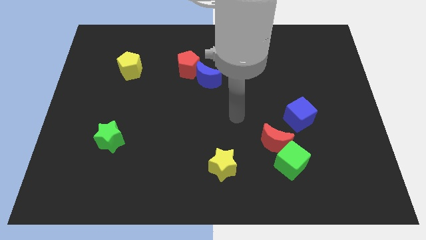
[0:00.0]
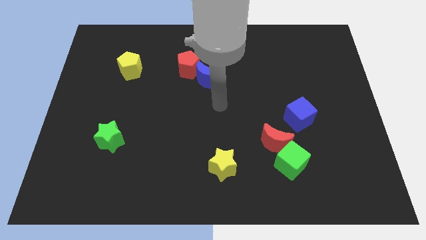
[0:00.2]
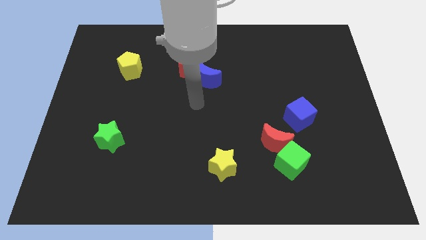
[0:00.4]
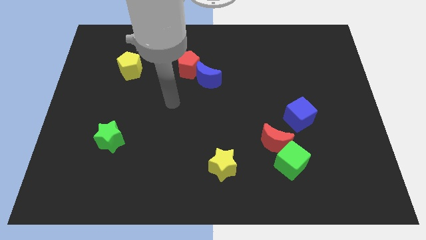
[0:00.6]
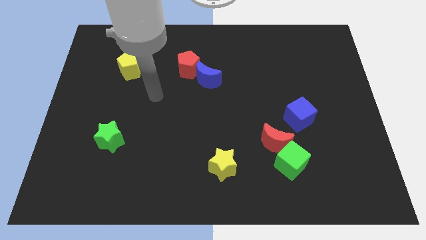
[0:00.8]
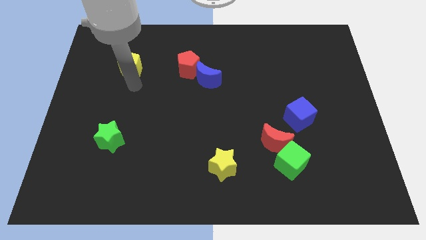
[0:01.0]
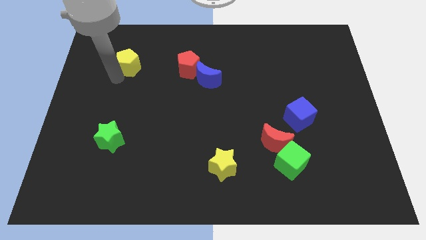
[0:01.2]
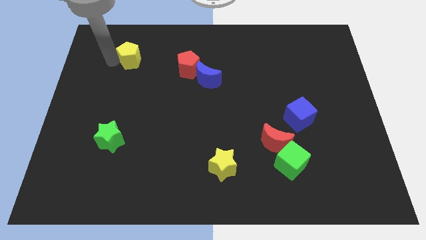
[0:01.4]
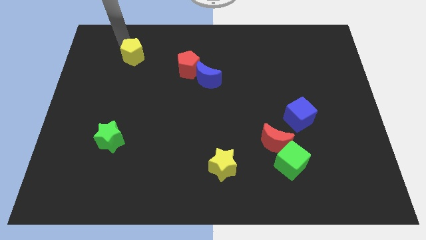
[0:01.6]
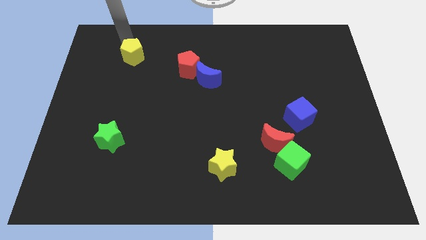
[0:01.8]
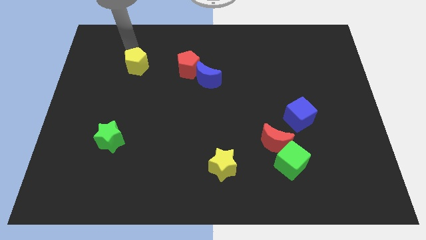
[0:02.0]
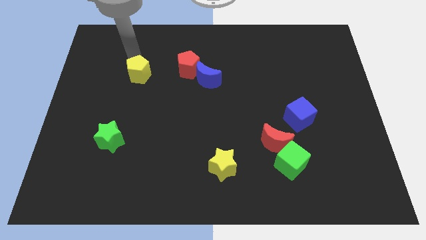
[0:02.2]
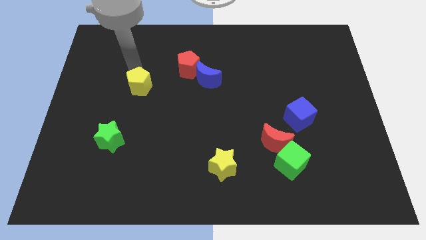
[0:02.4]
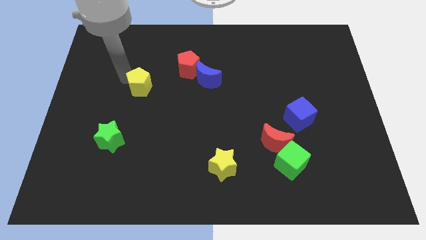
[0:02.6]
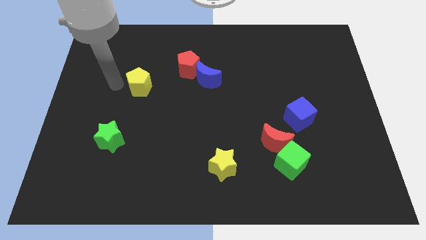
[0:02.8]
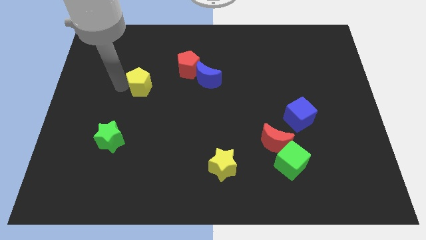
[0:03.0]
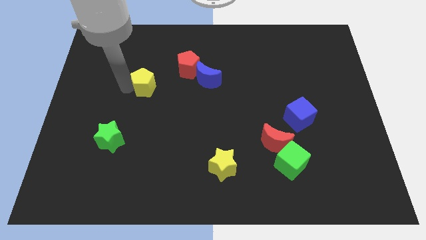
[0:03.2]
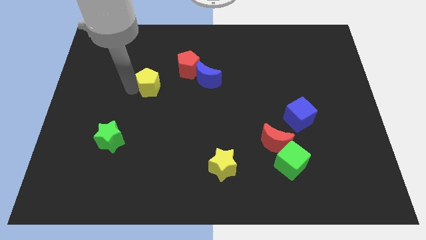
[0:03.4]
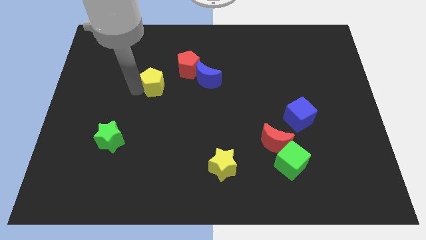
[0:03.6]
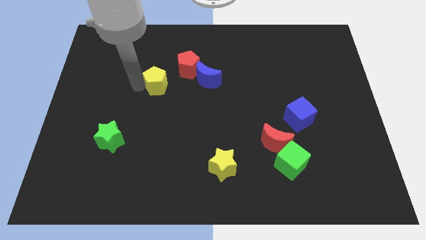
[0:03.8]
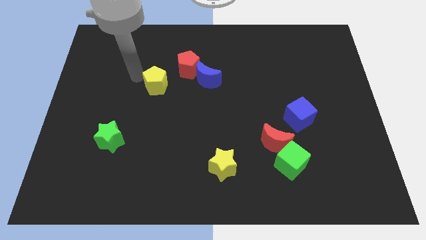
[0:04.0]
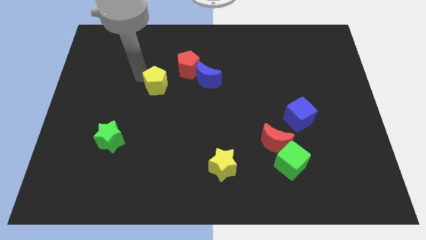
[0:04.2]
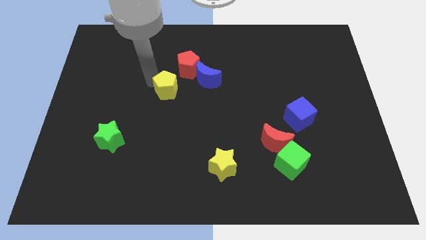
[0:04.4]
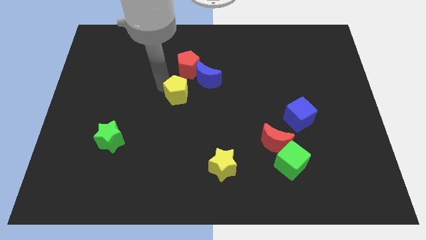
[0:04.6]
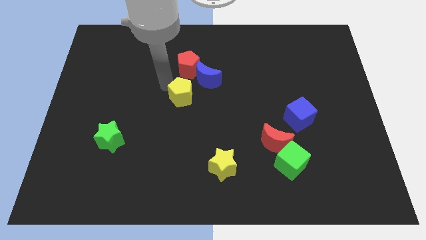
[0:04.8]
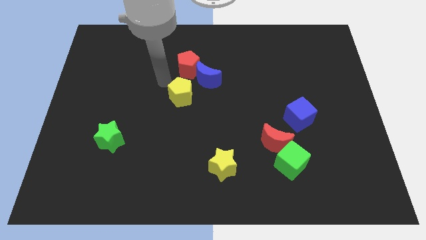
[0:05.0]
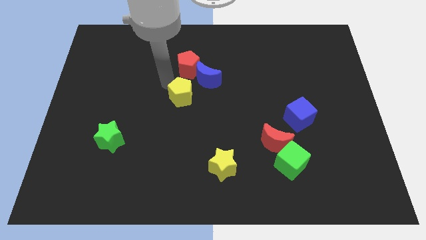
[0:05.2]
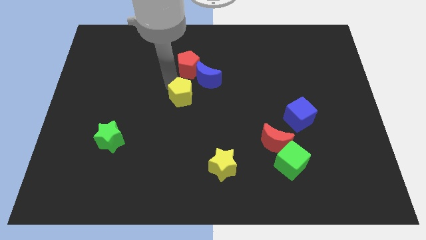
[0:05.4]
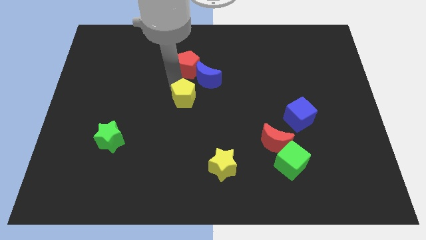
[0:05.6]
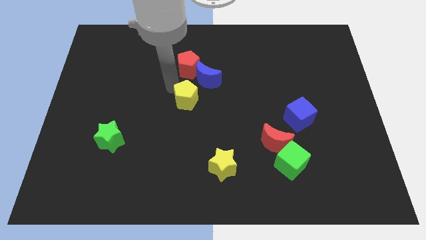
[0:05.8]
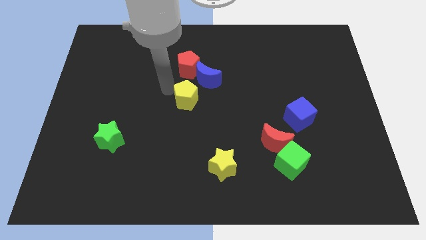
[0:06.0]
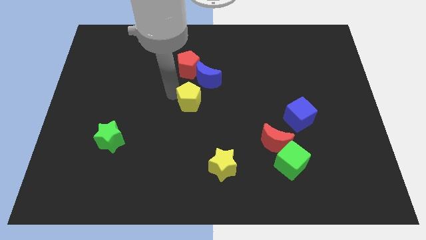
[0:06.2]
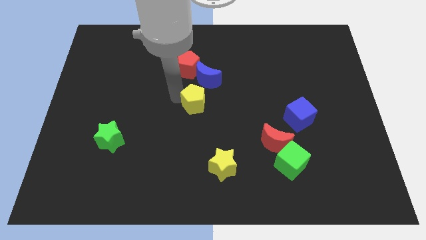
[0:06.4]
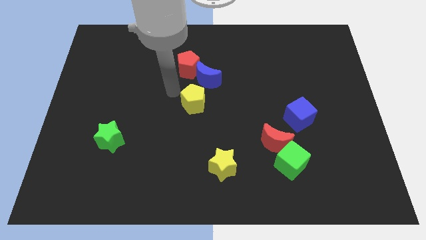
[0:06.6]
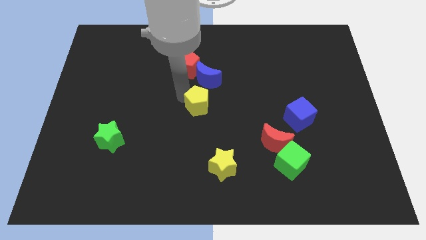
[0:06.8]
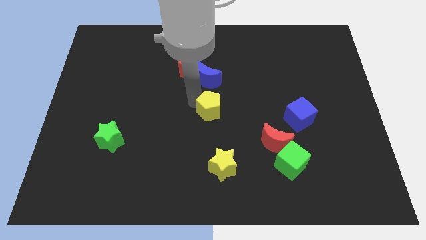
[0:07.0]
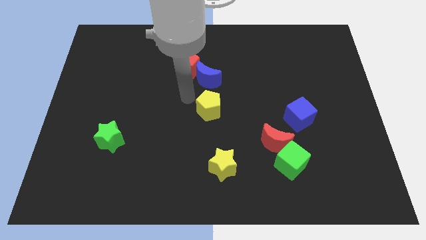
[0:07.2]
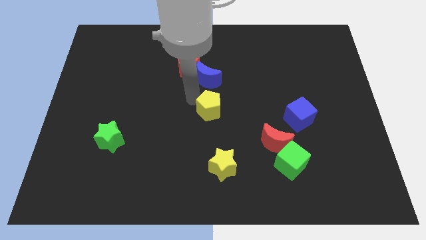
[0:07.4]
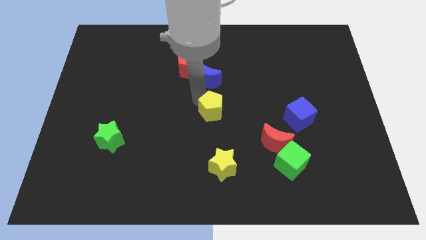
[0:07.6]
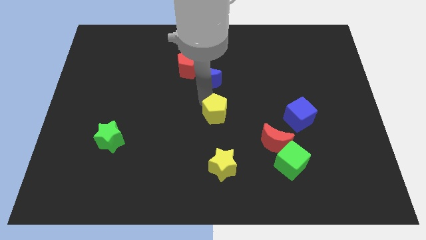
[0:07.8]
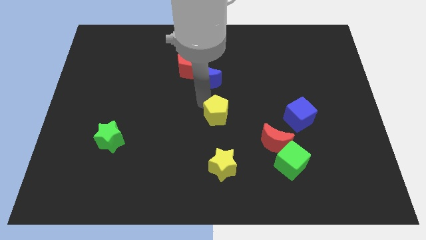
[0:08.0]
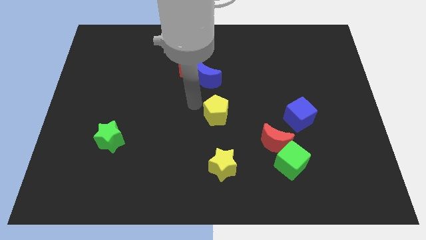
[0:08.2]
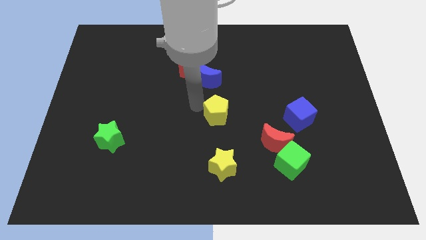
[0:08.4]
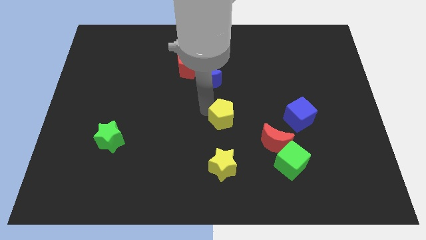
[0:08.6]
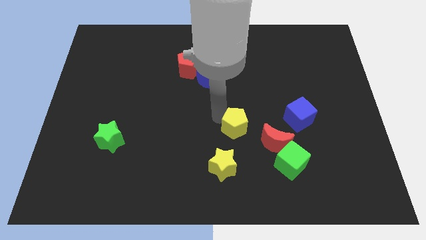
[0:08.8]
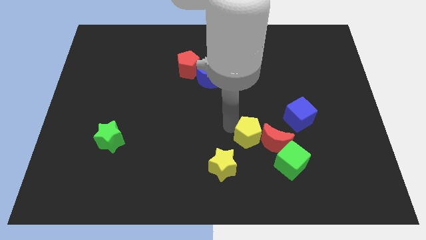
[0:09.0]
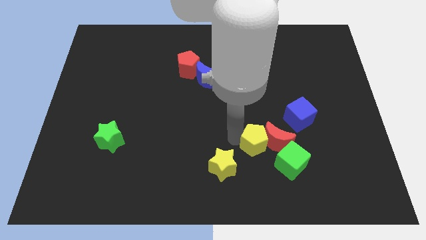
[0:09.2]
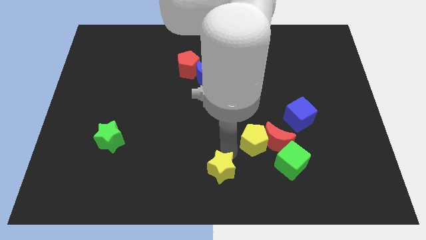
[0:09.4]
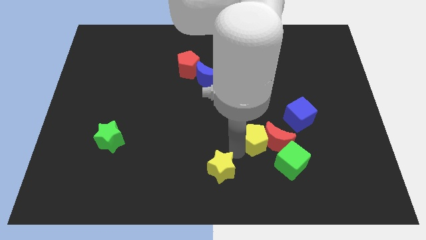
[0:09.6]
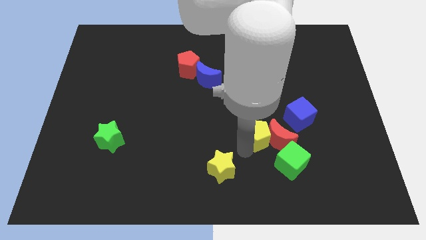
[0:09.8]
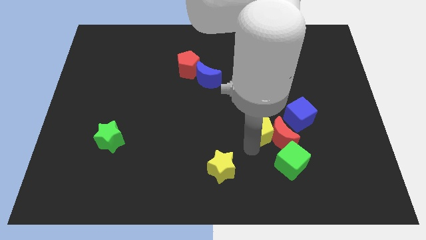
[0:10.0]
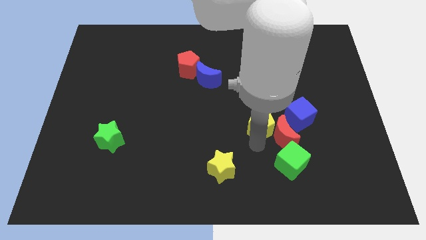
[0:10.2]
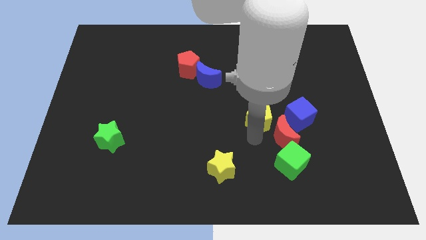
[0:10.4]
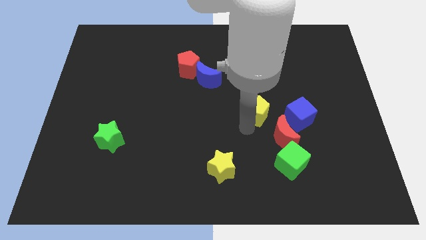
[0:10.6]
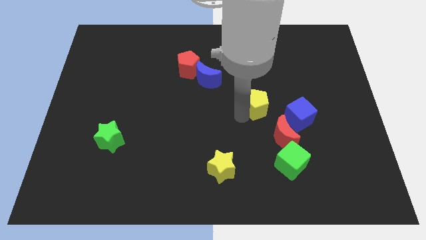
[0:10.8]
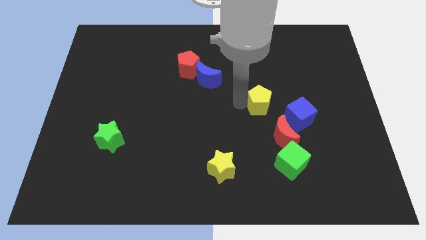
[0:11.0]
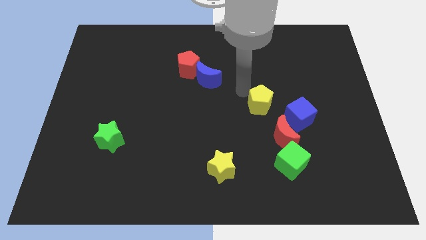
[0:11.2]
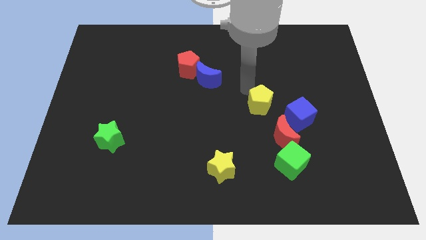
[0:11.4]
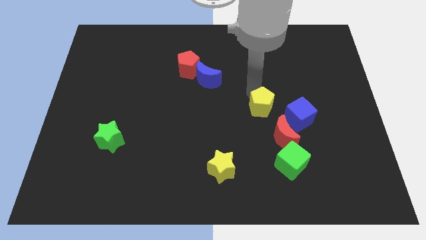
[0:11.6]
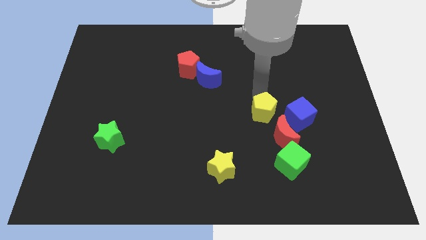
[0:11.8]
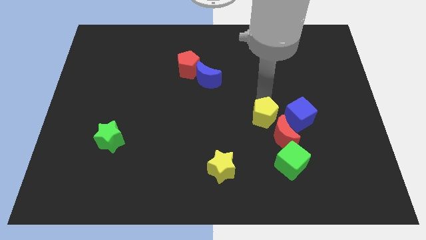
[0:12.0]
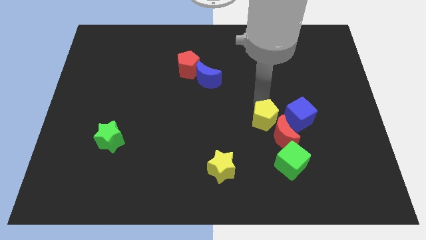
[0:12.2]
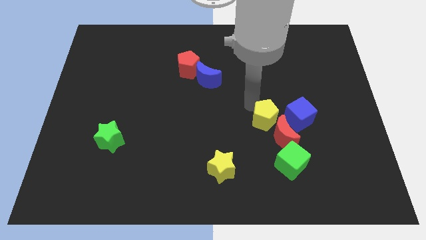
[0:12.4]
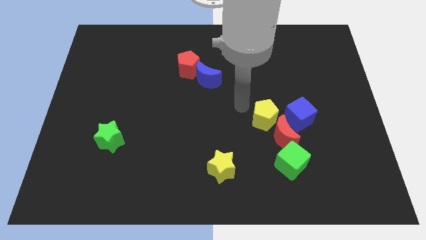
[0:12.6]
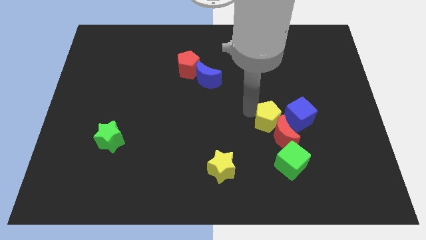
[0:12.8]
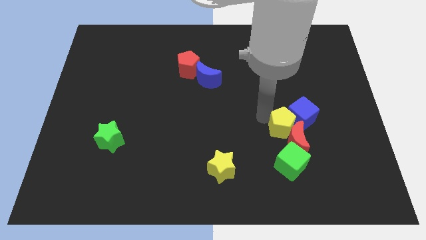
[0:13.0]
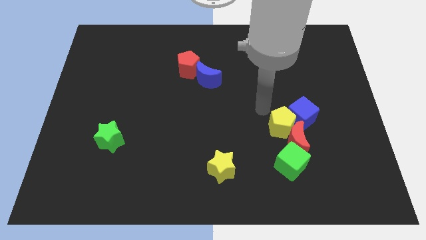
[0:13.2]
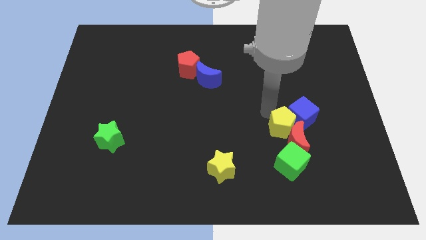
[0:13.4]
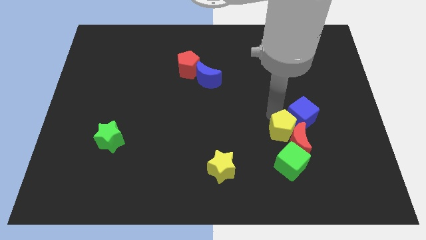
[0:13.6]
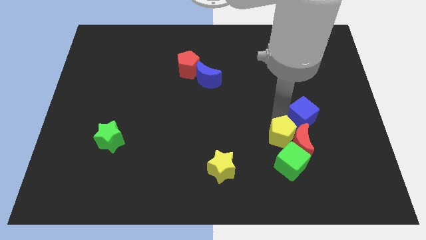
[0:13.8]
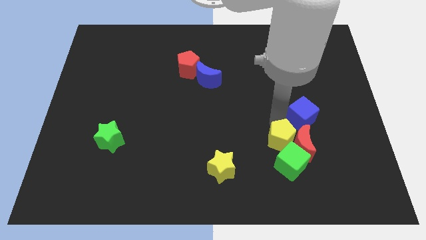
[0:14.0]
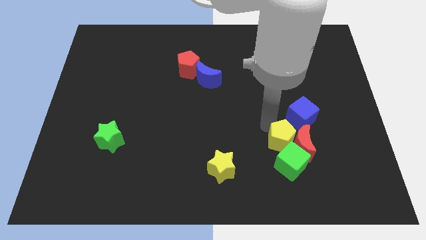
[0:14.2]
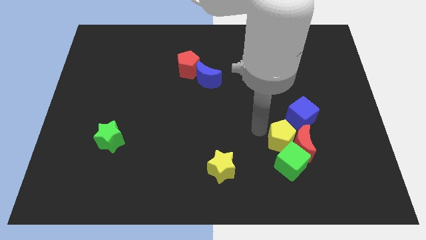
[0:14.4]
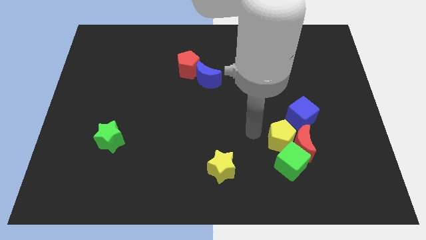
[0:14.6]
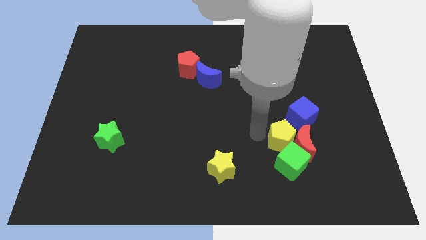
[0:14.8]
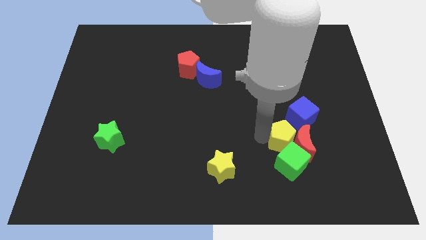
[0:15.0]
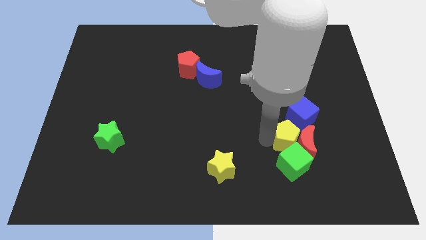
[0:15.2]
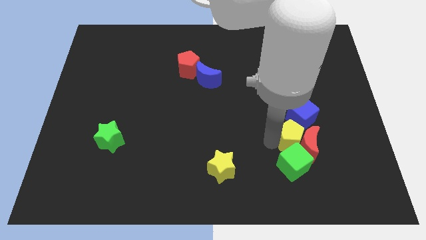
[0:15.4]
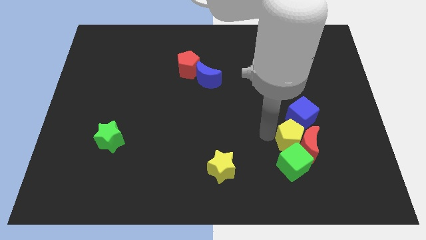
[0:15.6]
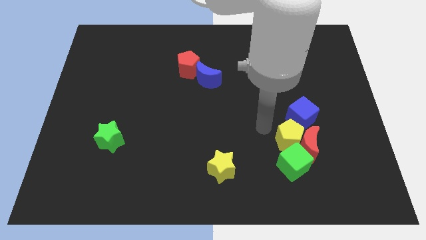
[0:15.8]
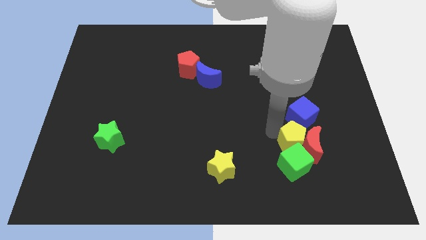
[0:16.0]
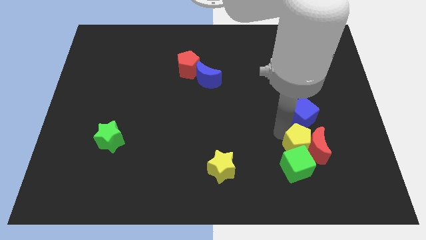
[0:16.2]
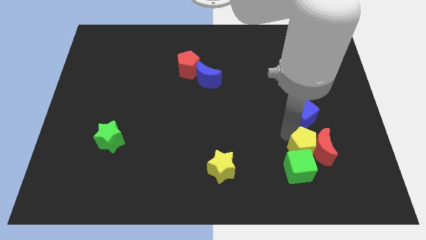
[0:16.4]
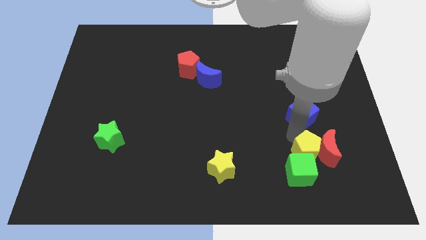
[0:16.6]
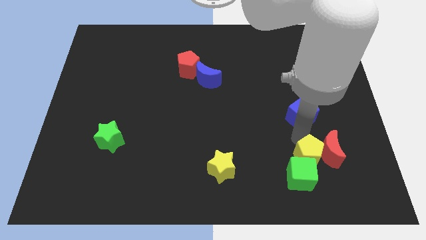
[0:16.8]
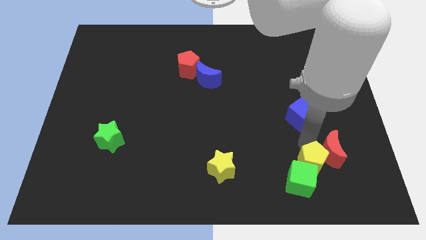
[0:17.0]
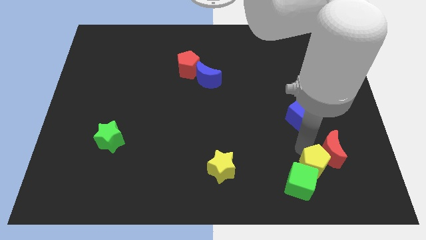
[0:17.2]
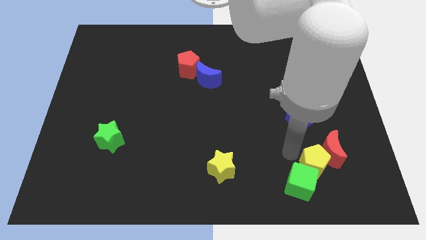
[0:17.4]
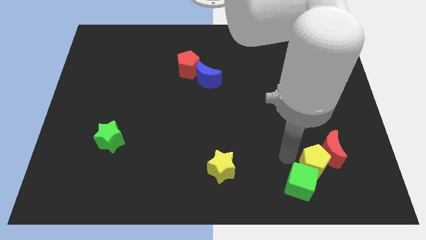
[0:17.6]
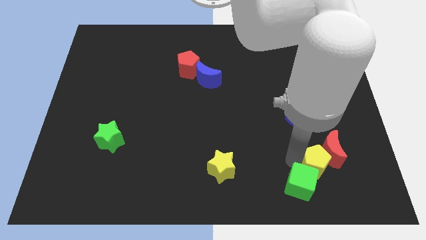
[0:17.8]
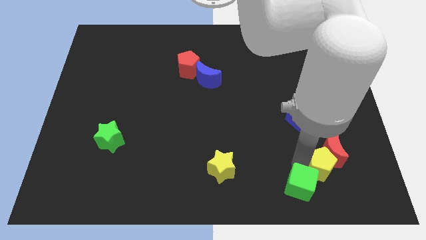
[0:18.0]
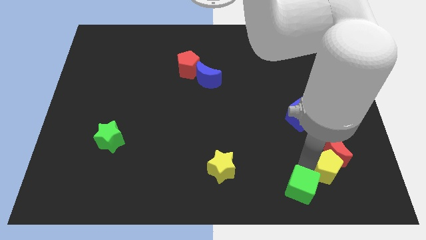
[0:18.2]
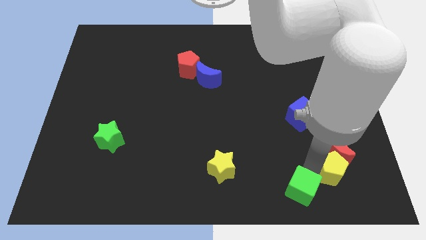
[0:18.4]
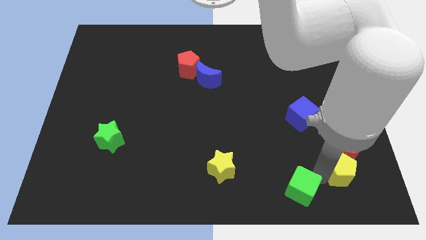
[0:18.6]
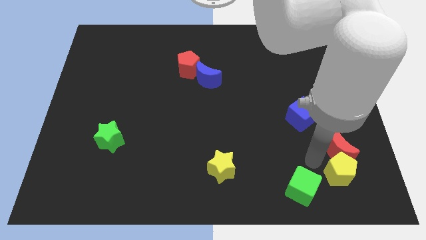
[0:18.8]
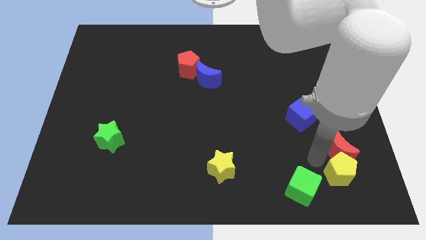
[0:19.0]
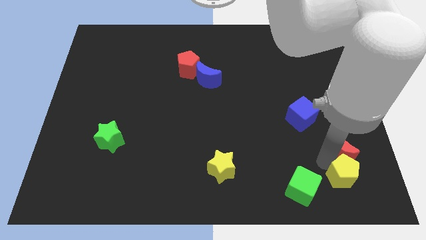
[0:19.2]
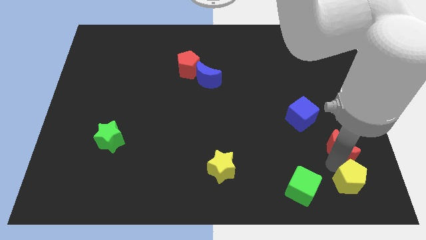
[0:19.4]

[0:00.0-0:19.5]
put the yellow pentagon to the lower right corner
